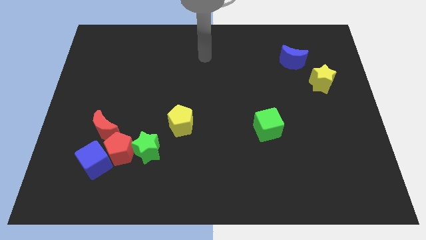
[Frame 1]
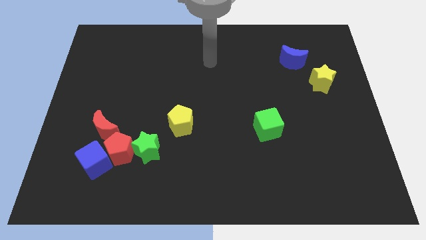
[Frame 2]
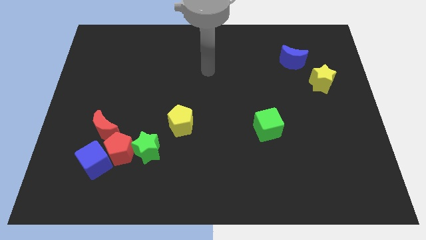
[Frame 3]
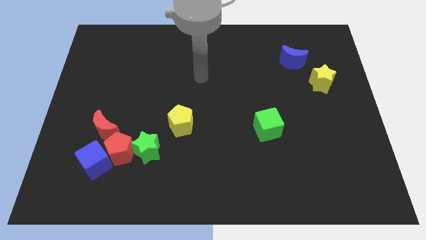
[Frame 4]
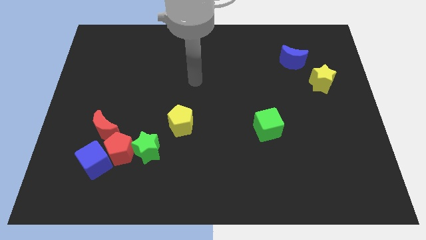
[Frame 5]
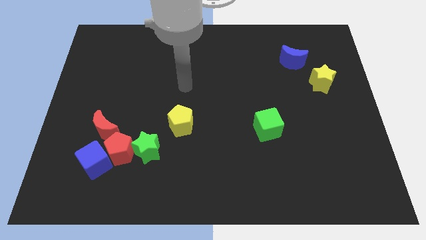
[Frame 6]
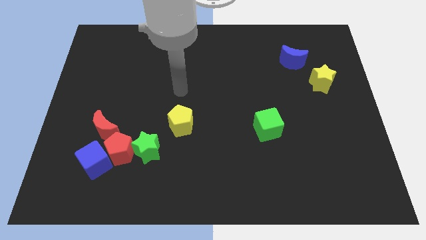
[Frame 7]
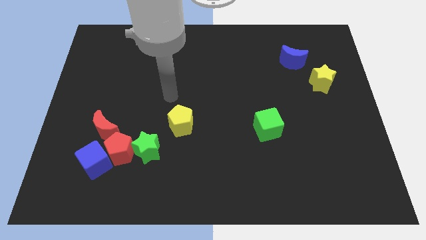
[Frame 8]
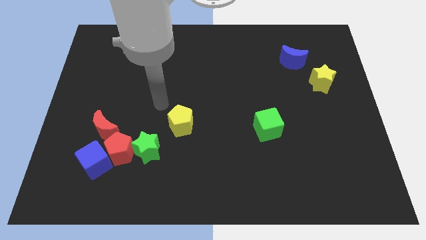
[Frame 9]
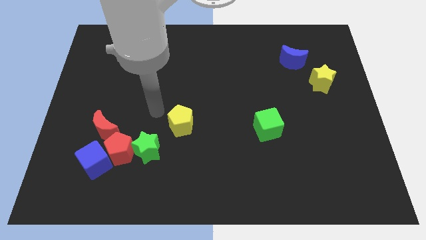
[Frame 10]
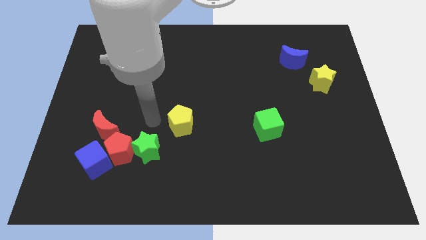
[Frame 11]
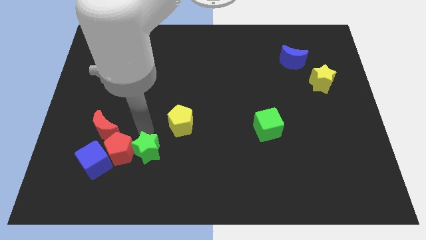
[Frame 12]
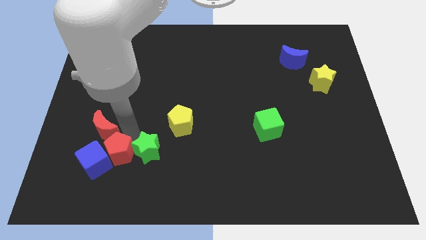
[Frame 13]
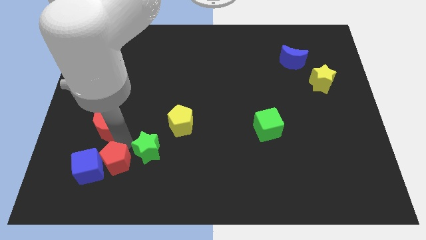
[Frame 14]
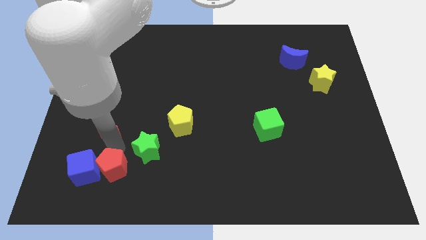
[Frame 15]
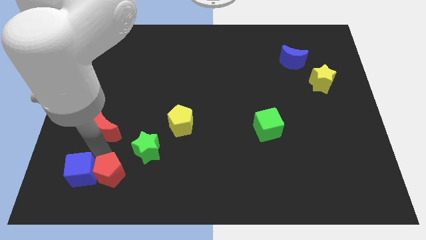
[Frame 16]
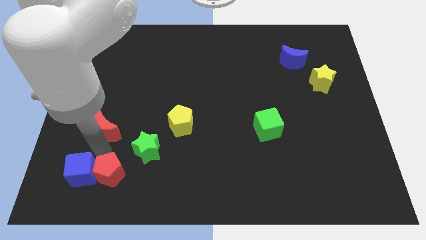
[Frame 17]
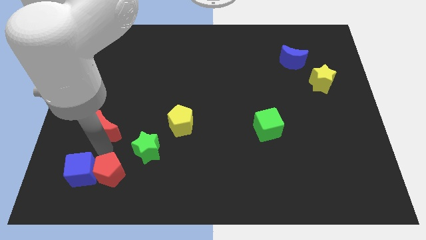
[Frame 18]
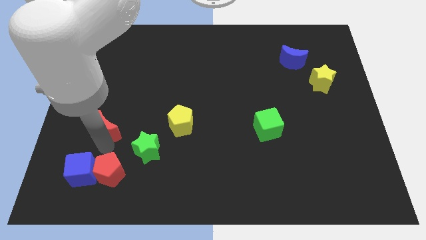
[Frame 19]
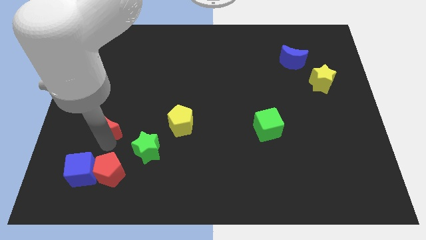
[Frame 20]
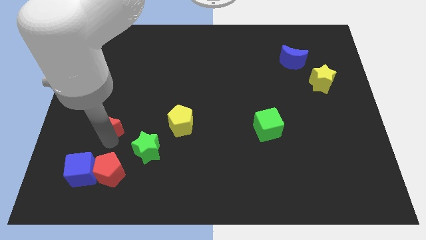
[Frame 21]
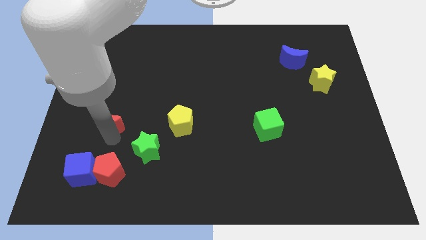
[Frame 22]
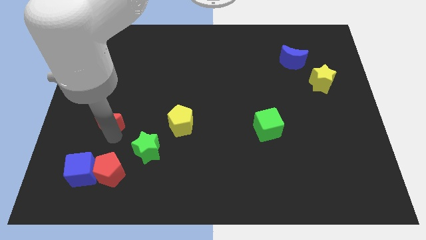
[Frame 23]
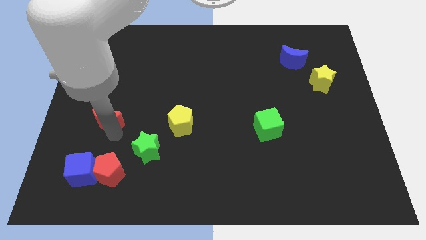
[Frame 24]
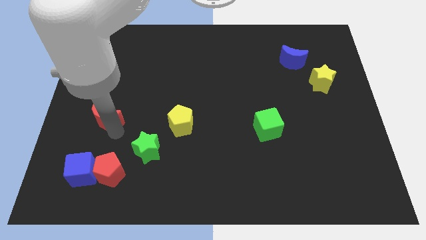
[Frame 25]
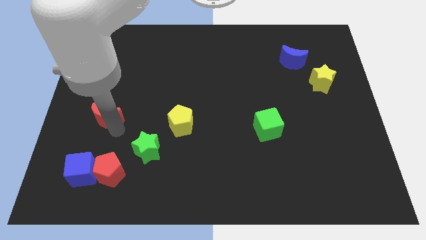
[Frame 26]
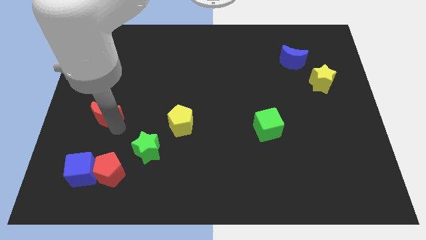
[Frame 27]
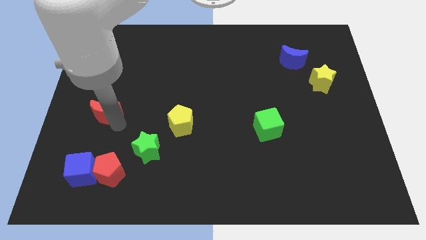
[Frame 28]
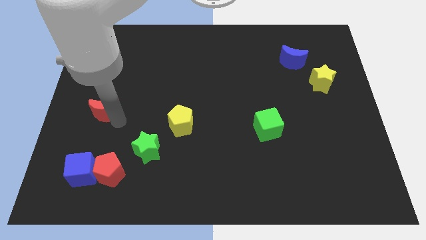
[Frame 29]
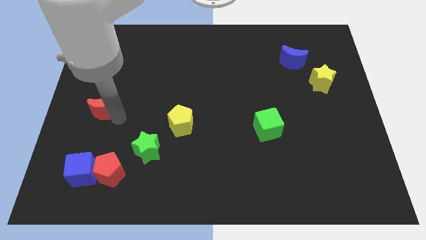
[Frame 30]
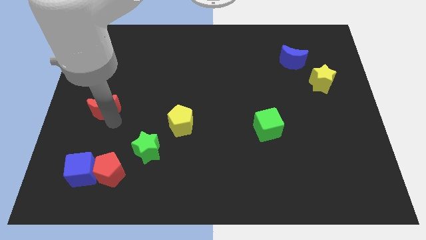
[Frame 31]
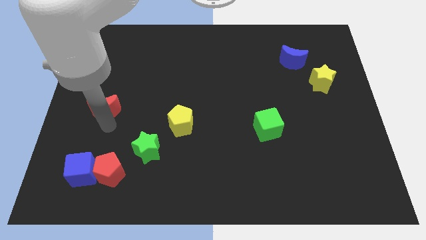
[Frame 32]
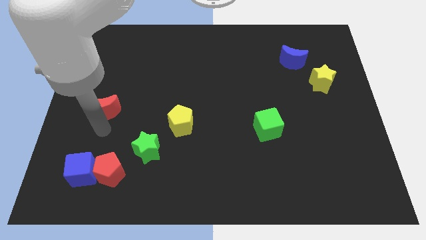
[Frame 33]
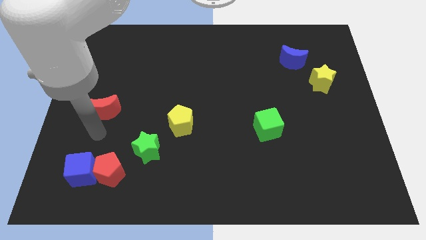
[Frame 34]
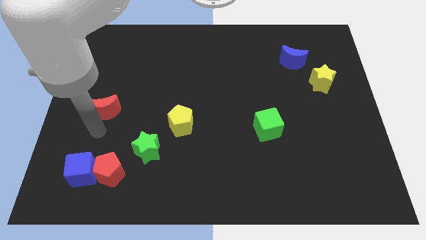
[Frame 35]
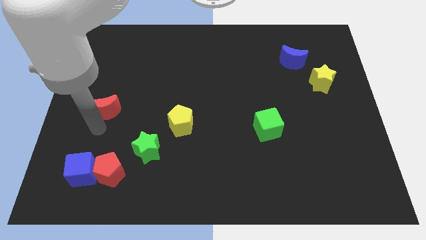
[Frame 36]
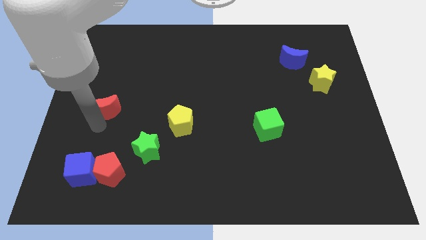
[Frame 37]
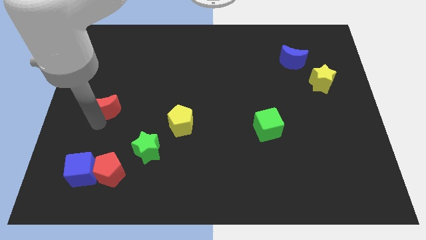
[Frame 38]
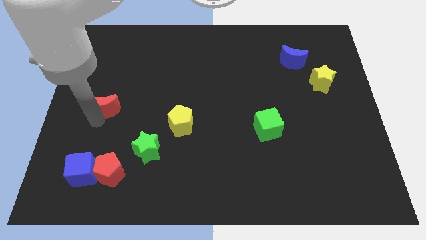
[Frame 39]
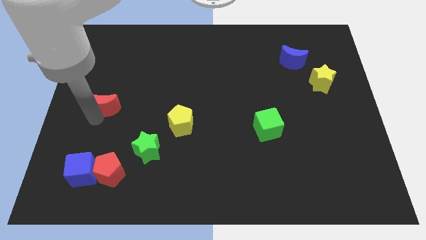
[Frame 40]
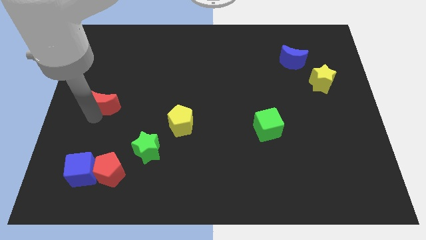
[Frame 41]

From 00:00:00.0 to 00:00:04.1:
move the red moon up slightly

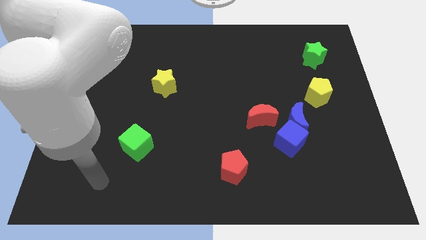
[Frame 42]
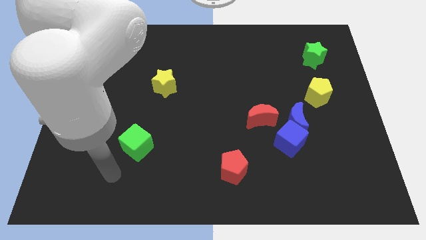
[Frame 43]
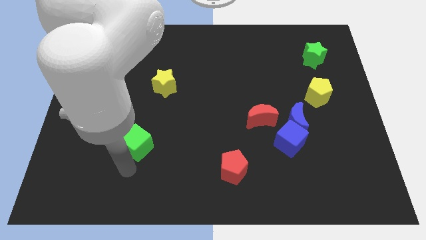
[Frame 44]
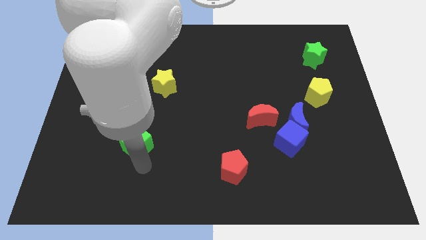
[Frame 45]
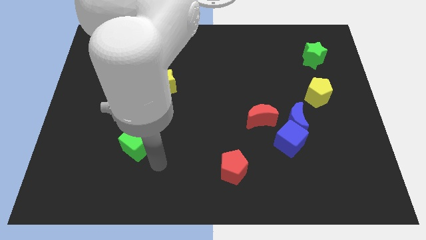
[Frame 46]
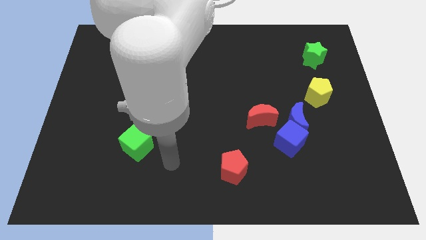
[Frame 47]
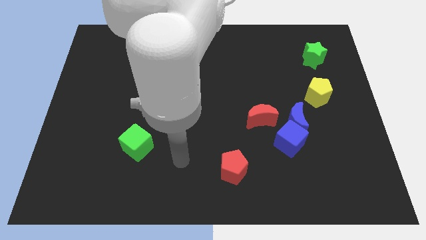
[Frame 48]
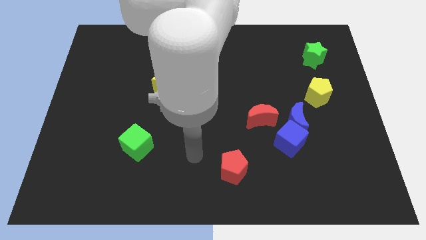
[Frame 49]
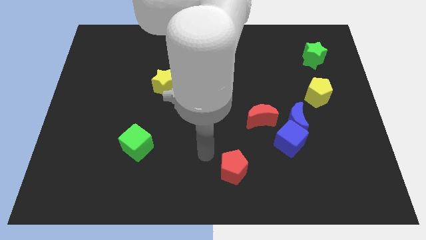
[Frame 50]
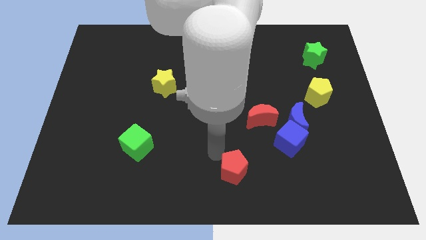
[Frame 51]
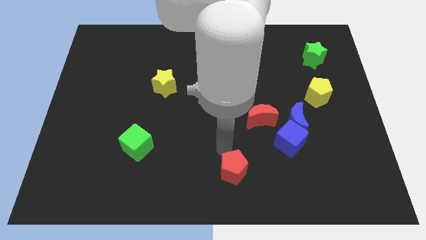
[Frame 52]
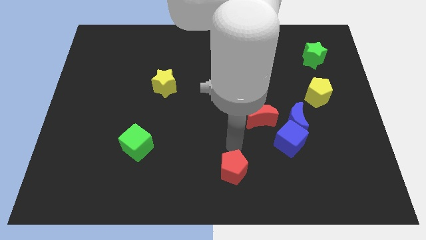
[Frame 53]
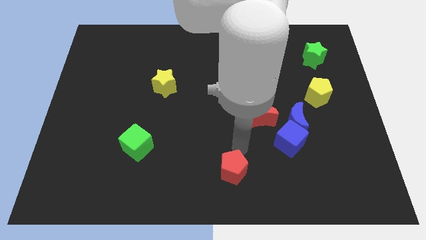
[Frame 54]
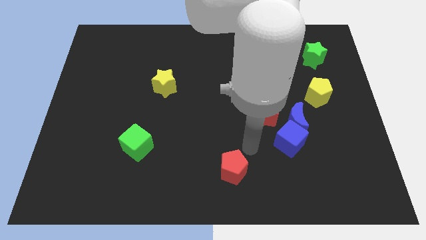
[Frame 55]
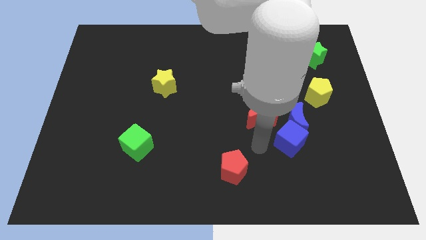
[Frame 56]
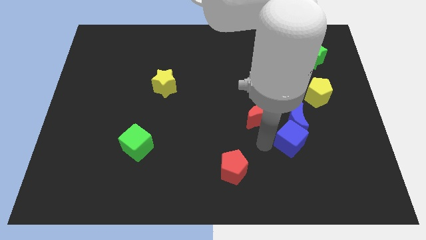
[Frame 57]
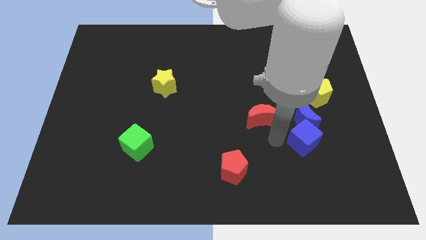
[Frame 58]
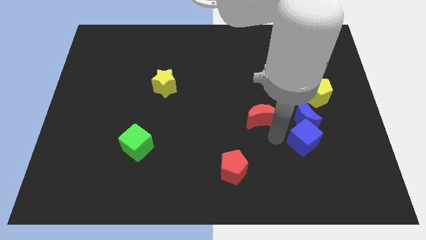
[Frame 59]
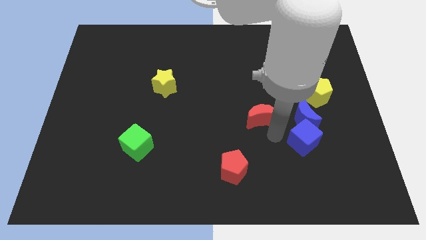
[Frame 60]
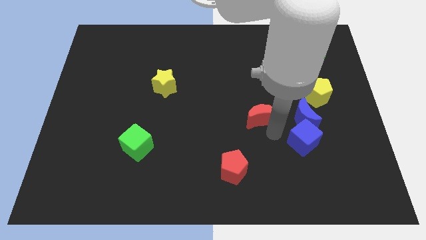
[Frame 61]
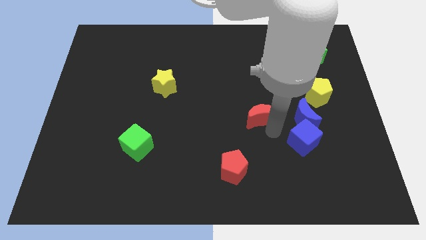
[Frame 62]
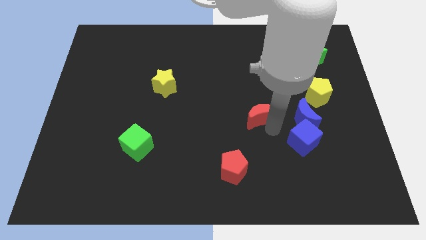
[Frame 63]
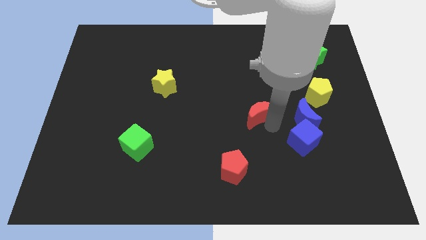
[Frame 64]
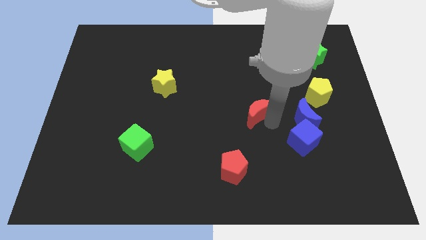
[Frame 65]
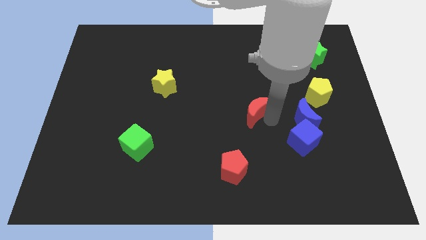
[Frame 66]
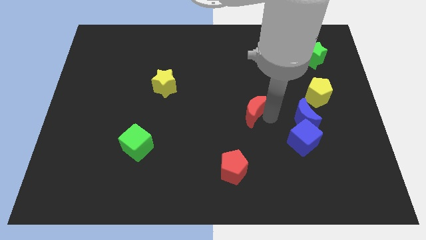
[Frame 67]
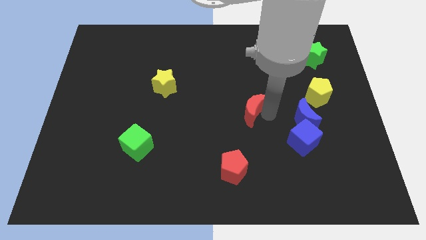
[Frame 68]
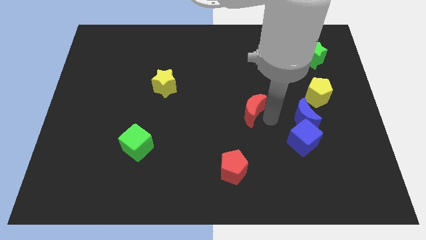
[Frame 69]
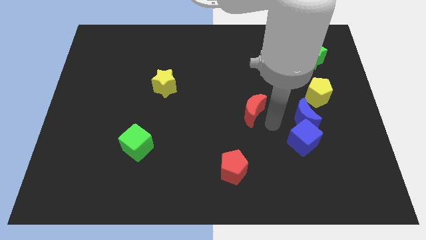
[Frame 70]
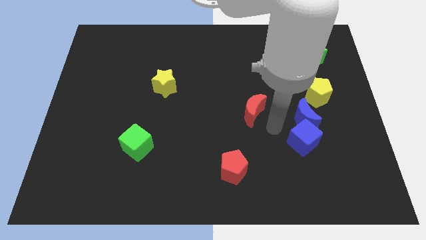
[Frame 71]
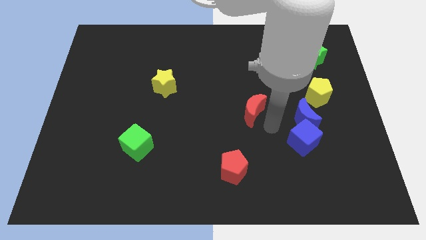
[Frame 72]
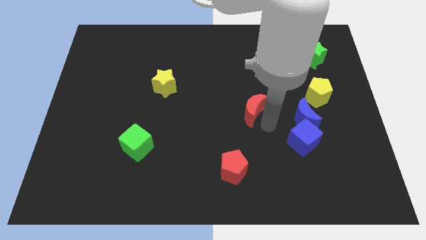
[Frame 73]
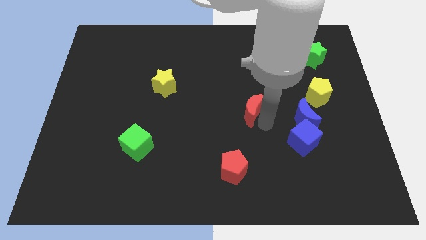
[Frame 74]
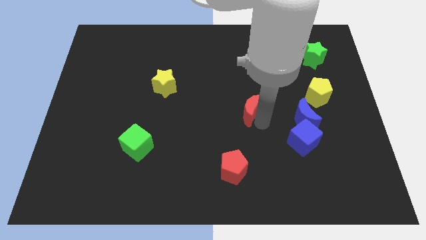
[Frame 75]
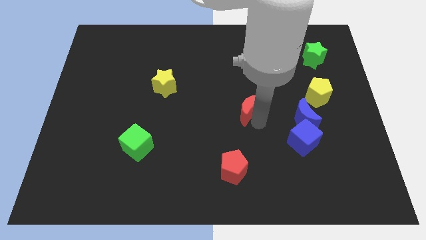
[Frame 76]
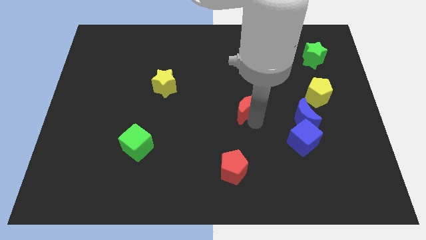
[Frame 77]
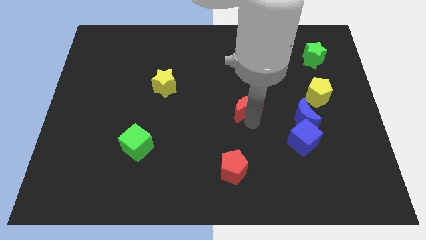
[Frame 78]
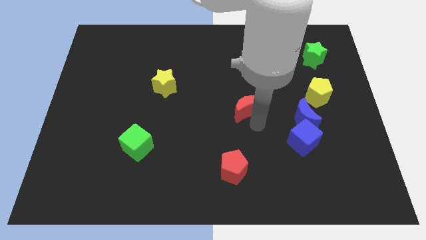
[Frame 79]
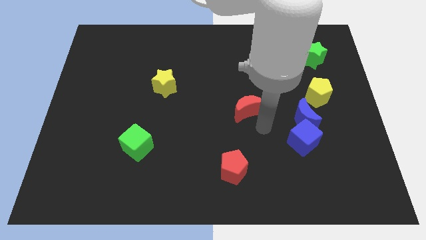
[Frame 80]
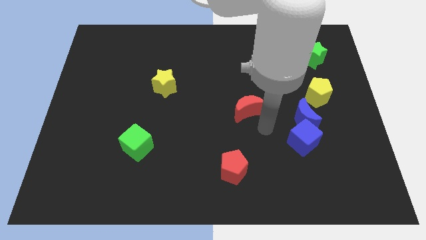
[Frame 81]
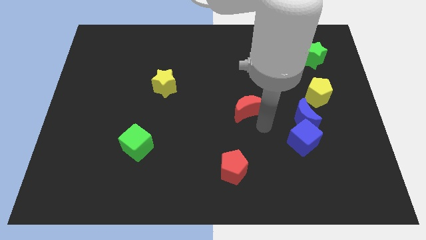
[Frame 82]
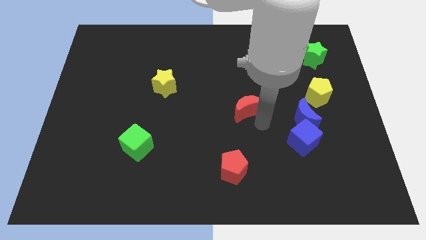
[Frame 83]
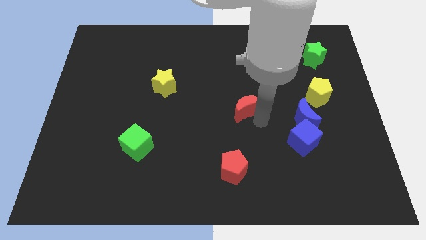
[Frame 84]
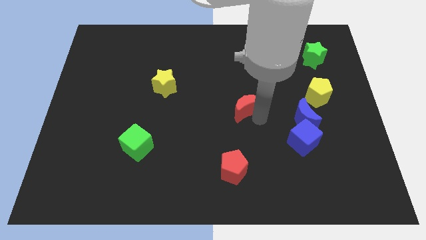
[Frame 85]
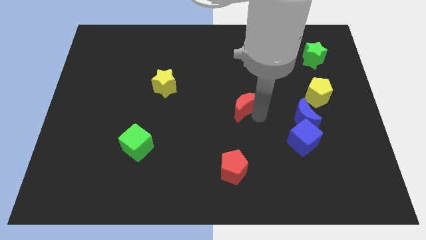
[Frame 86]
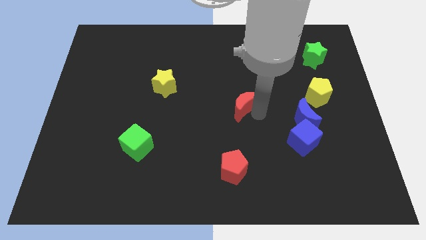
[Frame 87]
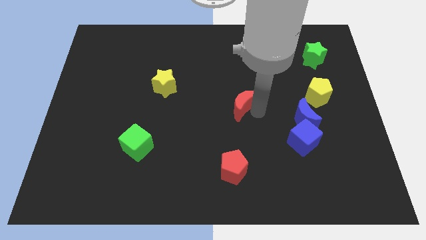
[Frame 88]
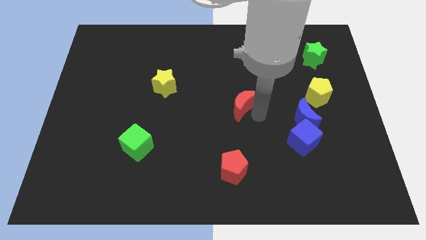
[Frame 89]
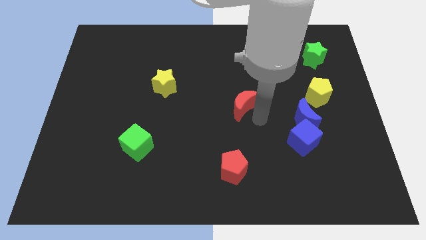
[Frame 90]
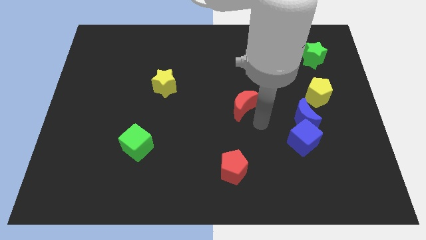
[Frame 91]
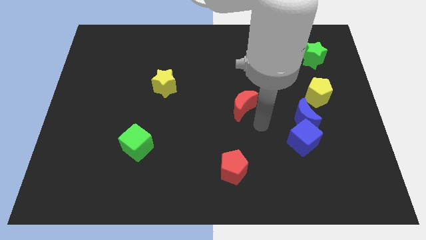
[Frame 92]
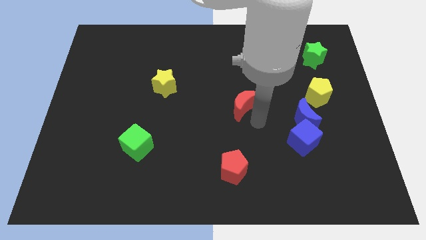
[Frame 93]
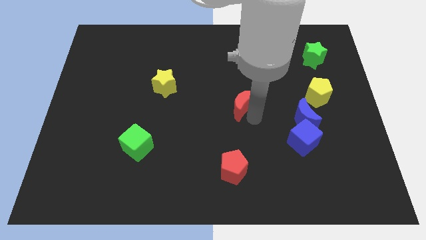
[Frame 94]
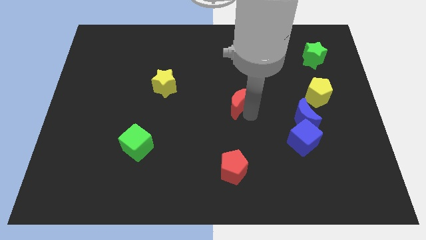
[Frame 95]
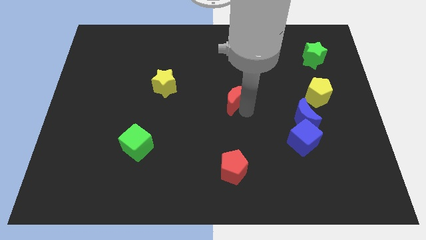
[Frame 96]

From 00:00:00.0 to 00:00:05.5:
slide the red moon upwards and left a little bit
